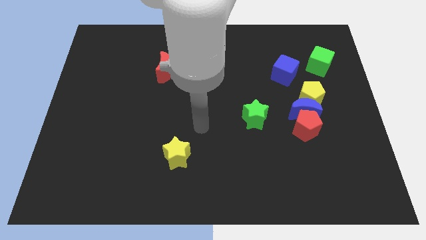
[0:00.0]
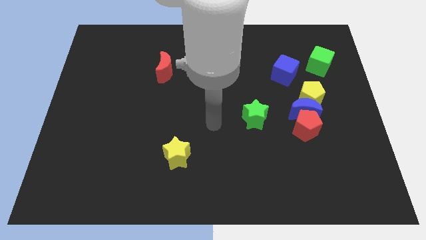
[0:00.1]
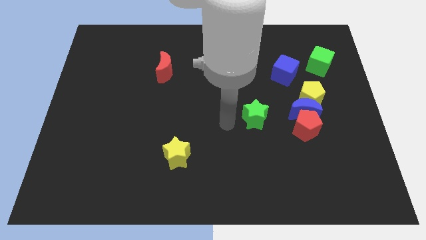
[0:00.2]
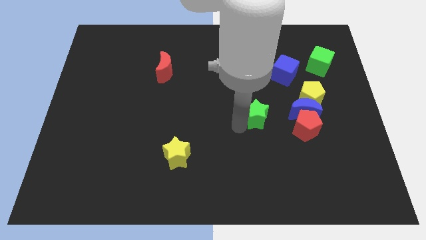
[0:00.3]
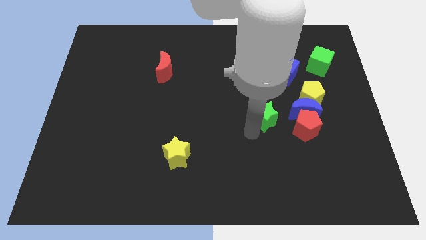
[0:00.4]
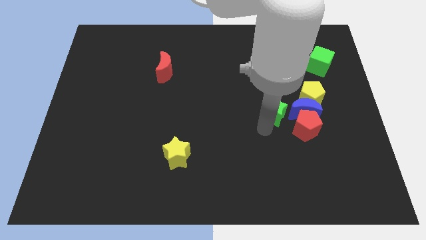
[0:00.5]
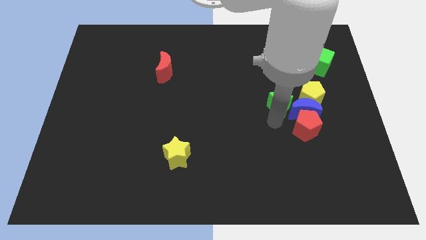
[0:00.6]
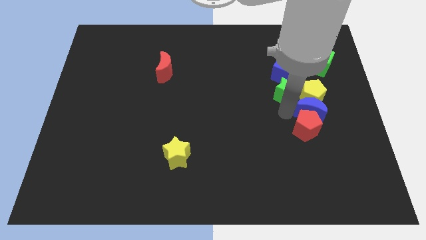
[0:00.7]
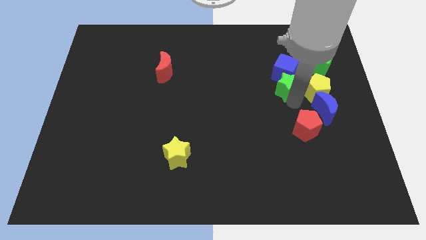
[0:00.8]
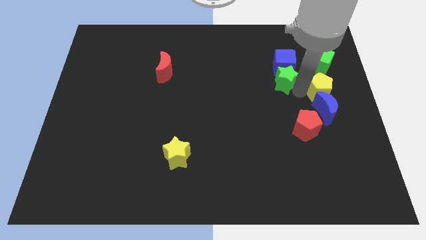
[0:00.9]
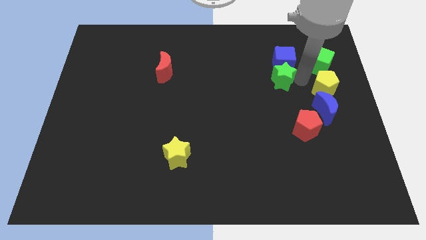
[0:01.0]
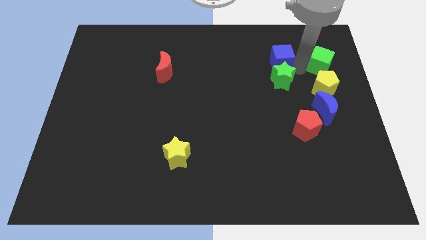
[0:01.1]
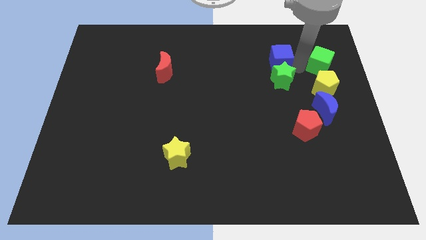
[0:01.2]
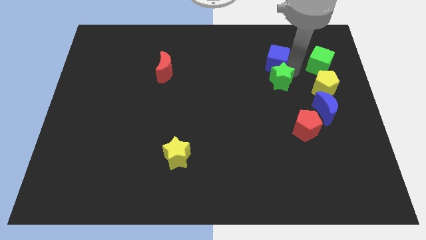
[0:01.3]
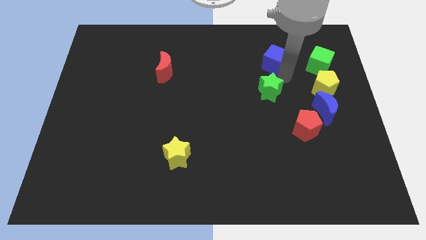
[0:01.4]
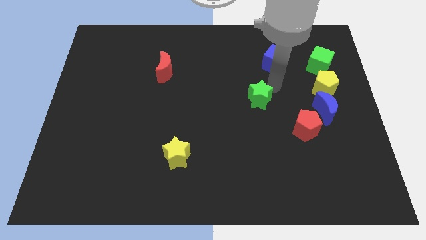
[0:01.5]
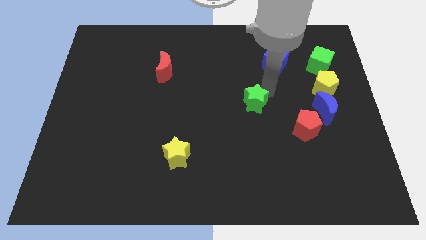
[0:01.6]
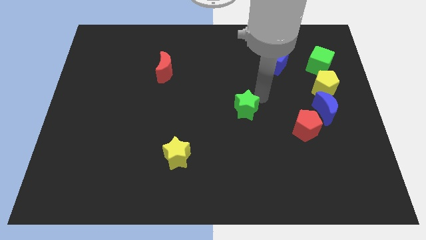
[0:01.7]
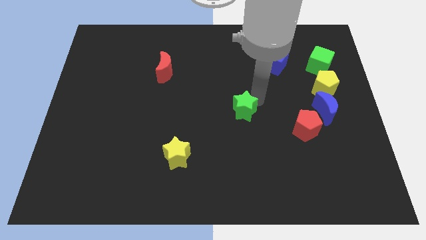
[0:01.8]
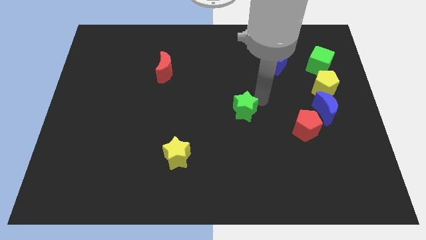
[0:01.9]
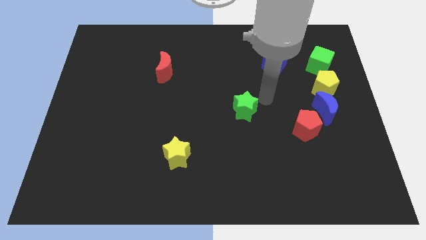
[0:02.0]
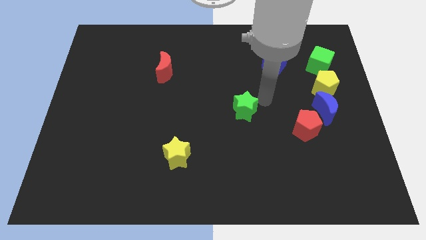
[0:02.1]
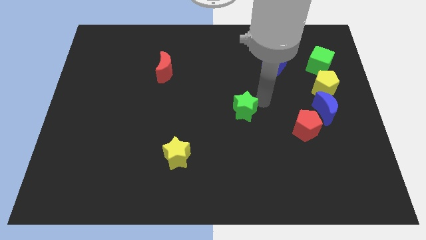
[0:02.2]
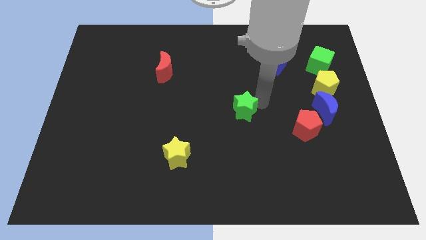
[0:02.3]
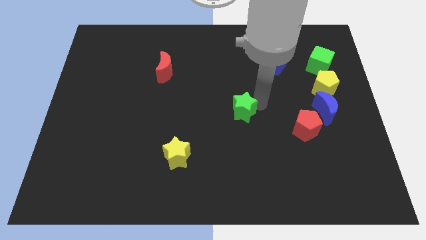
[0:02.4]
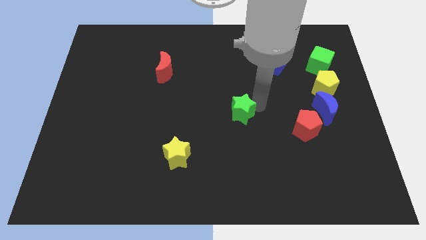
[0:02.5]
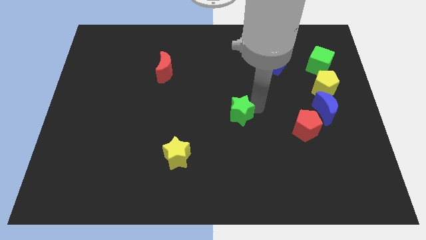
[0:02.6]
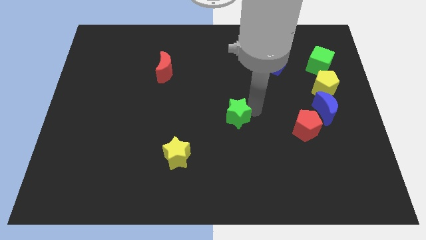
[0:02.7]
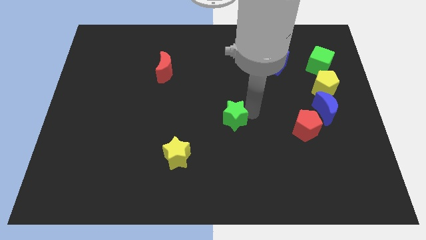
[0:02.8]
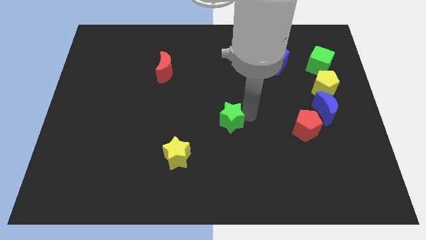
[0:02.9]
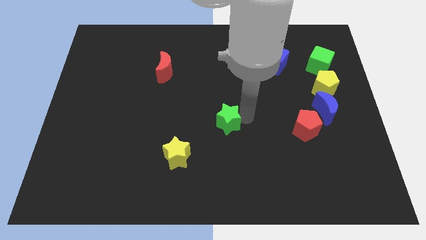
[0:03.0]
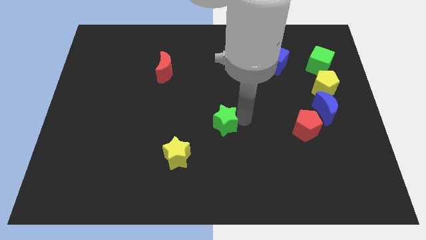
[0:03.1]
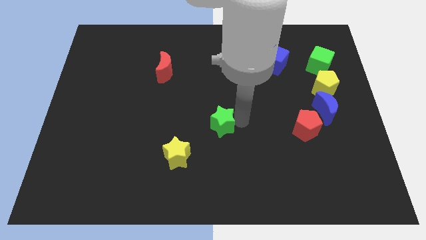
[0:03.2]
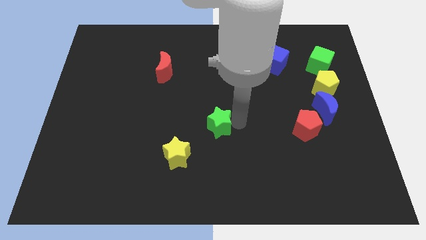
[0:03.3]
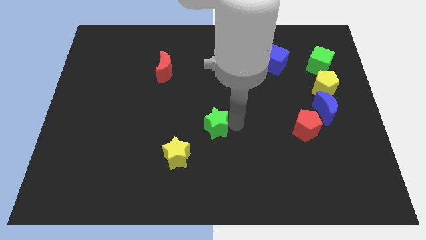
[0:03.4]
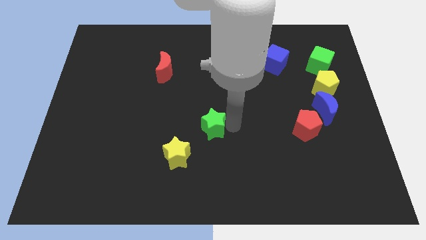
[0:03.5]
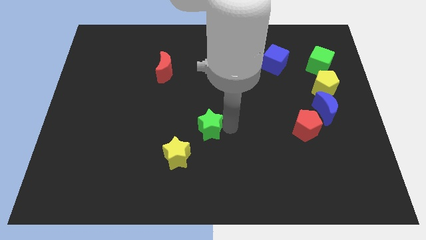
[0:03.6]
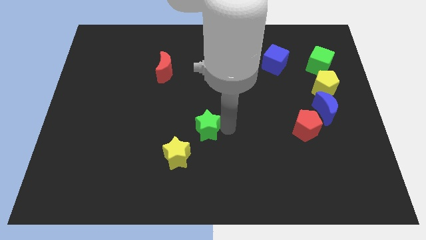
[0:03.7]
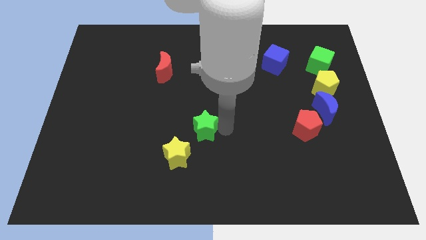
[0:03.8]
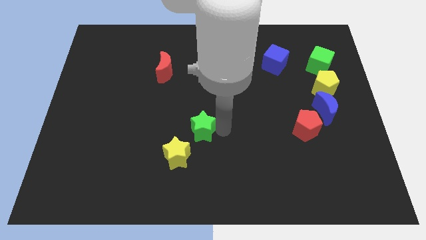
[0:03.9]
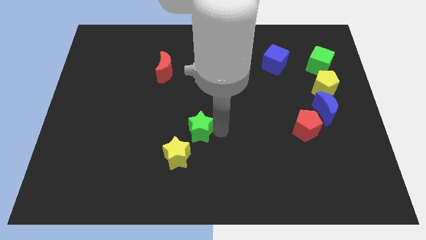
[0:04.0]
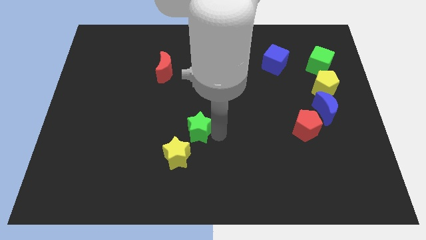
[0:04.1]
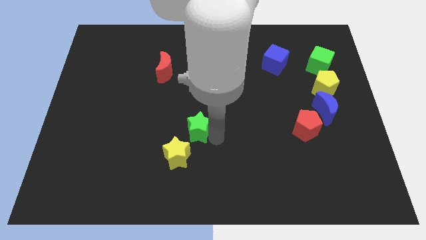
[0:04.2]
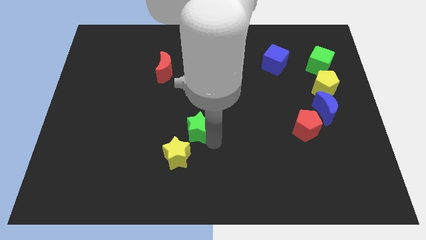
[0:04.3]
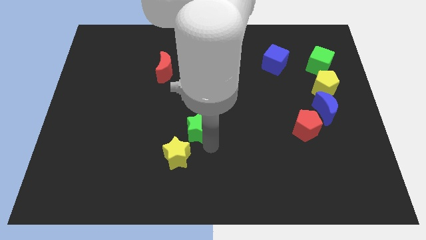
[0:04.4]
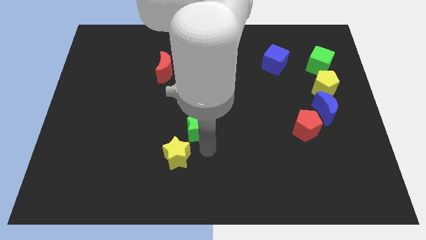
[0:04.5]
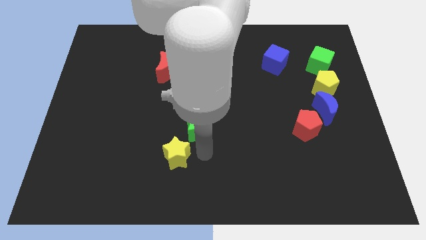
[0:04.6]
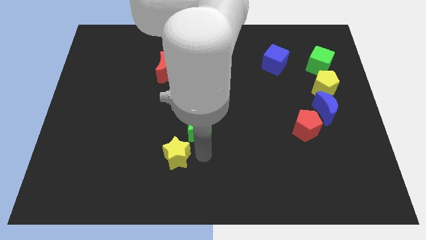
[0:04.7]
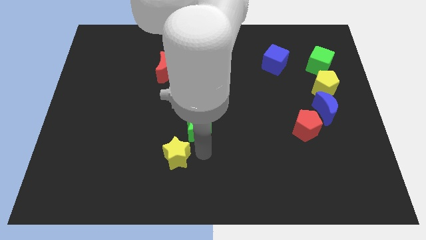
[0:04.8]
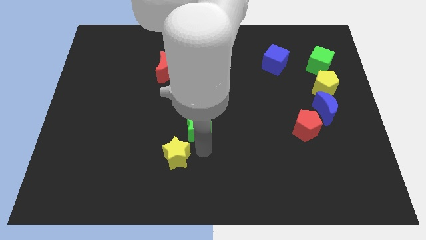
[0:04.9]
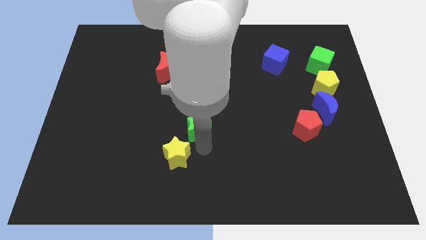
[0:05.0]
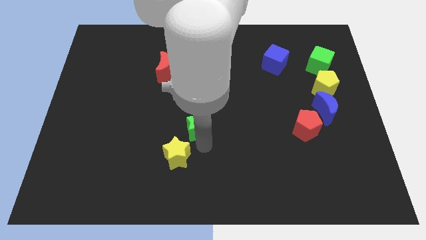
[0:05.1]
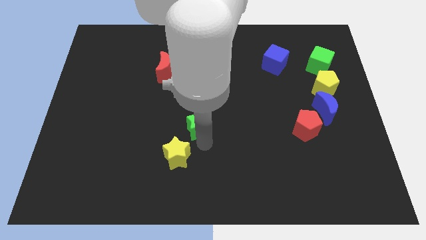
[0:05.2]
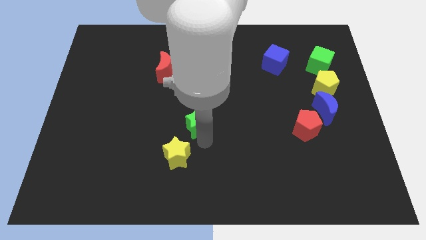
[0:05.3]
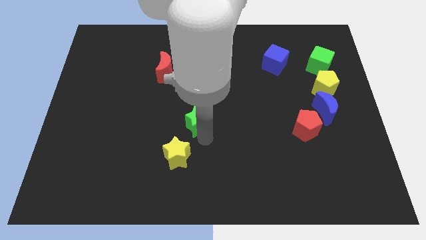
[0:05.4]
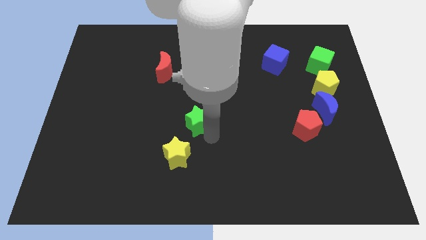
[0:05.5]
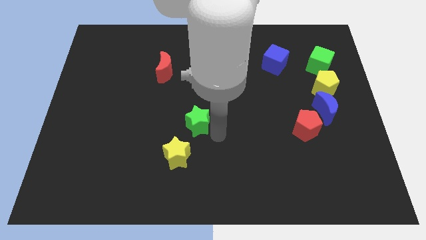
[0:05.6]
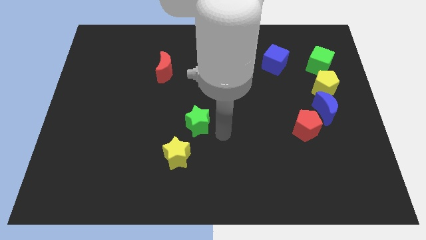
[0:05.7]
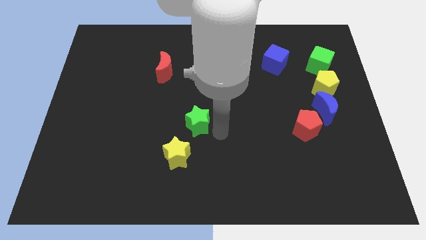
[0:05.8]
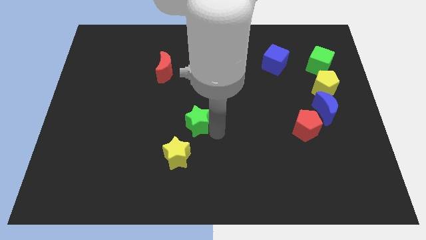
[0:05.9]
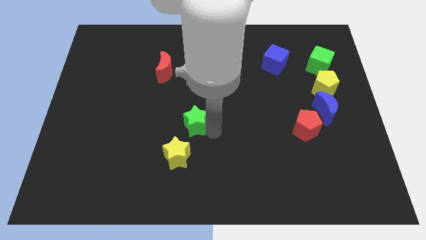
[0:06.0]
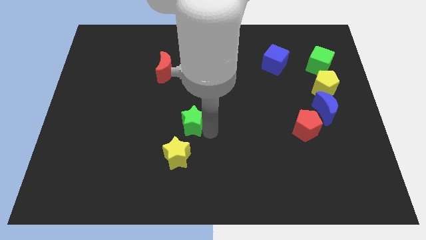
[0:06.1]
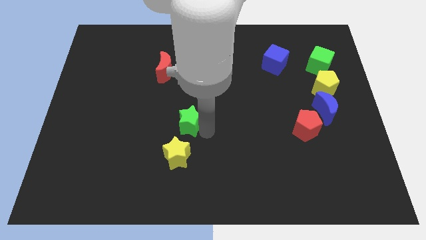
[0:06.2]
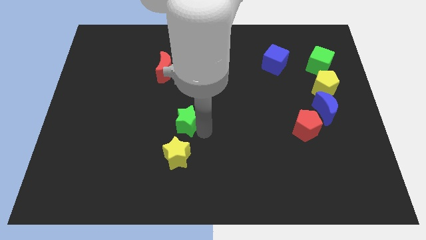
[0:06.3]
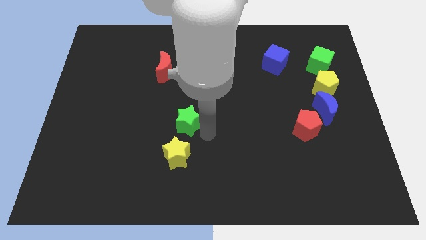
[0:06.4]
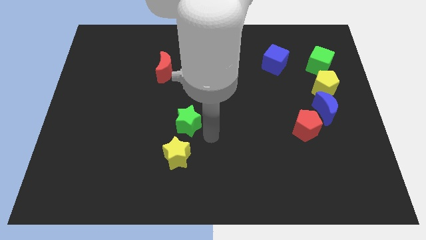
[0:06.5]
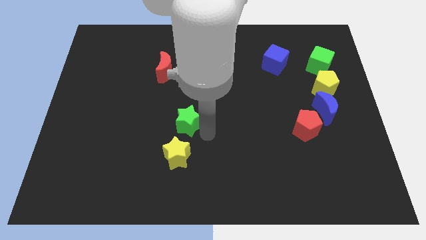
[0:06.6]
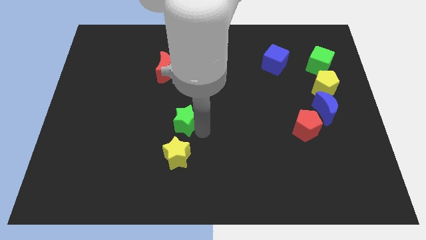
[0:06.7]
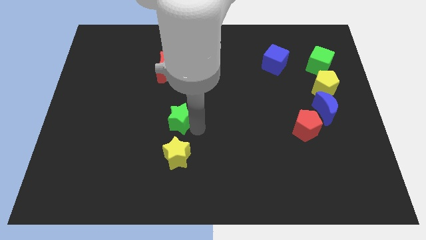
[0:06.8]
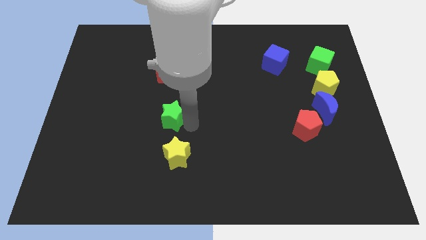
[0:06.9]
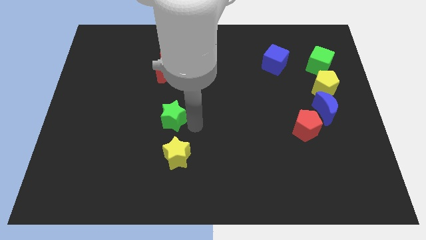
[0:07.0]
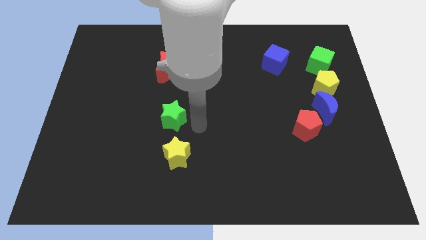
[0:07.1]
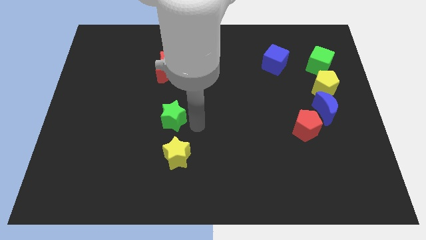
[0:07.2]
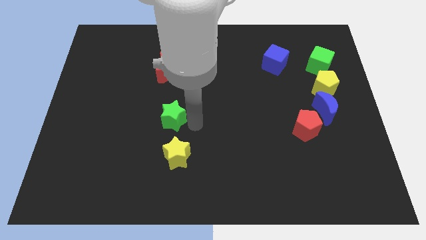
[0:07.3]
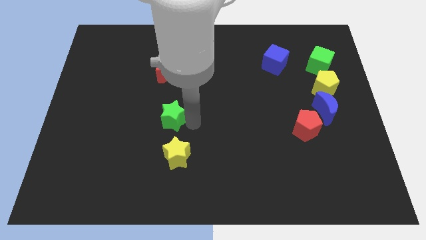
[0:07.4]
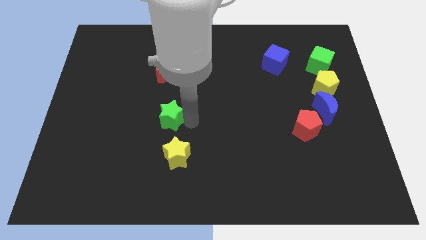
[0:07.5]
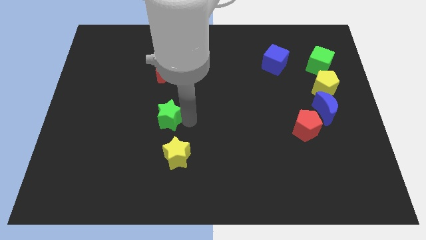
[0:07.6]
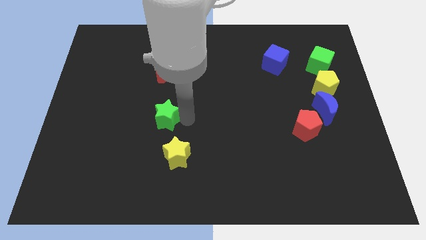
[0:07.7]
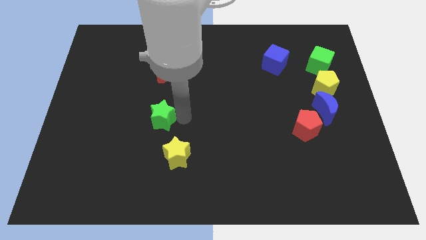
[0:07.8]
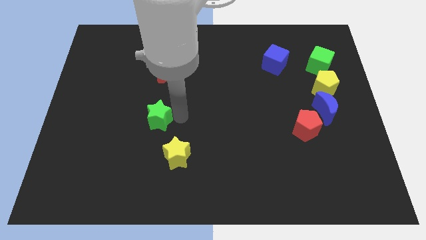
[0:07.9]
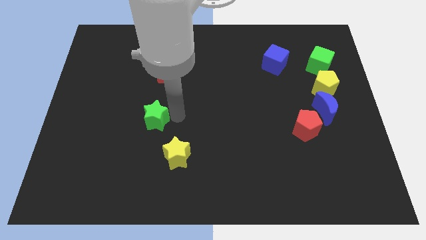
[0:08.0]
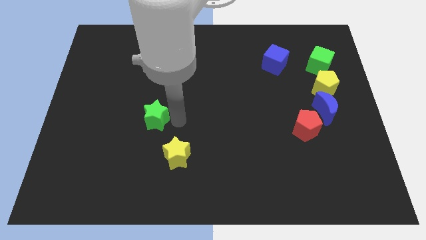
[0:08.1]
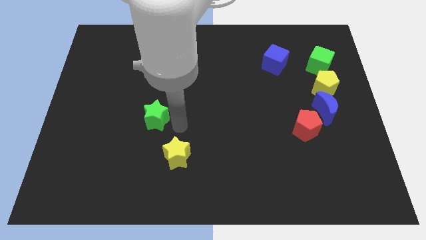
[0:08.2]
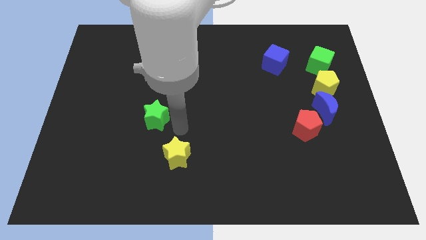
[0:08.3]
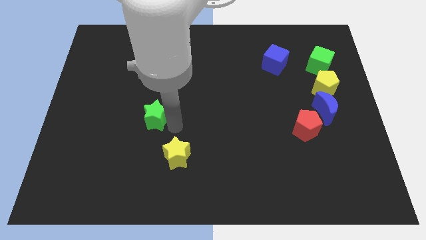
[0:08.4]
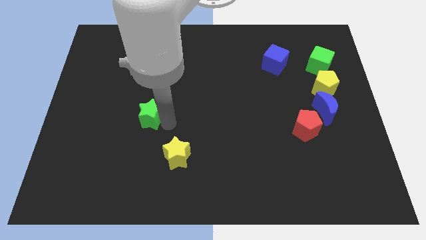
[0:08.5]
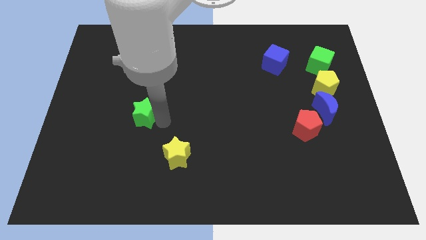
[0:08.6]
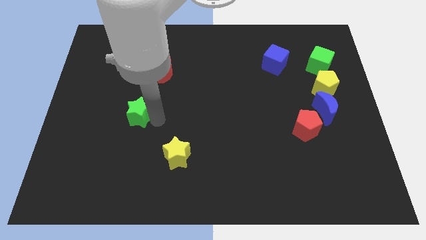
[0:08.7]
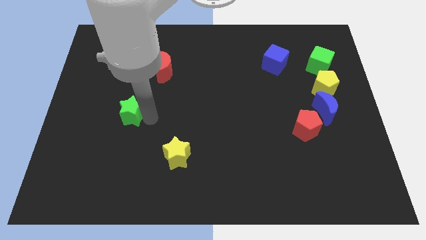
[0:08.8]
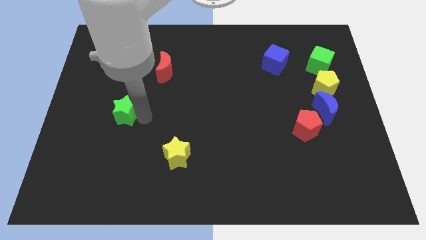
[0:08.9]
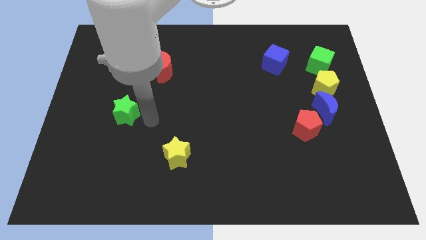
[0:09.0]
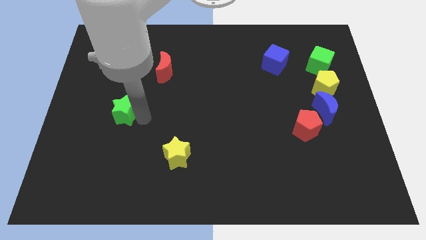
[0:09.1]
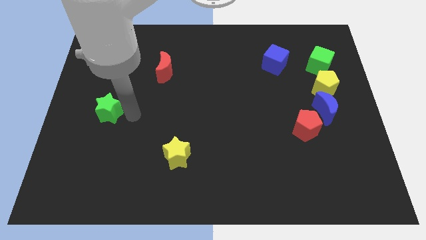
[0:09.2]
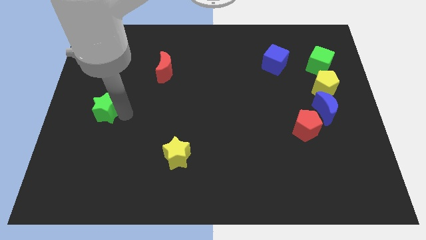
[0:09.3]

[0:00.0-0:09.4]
slide the green star to the left side
